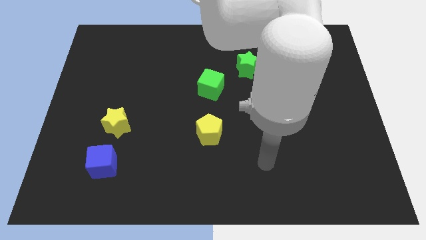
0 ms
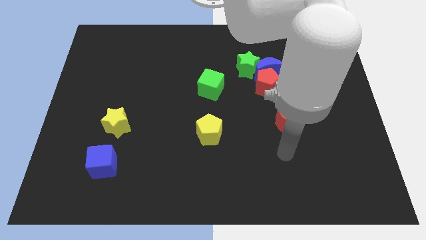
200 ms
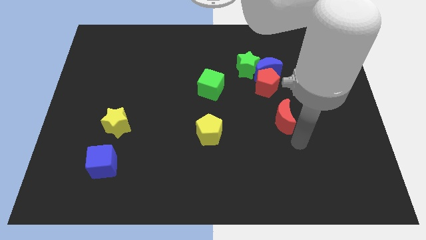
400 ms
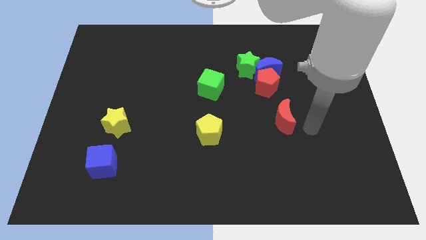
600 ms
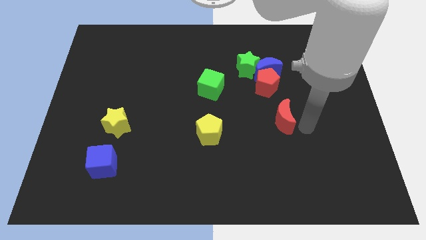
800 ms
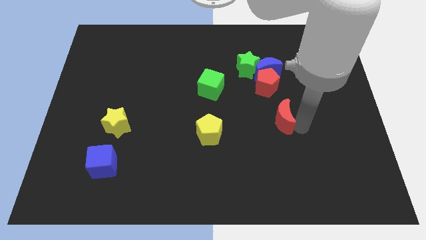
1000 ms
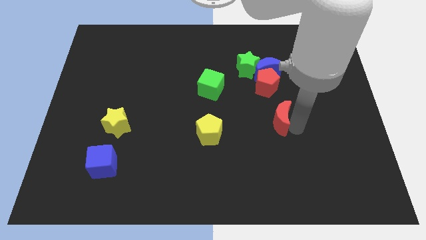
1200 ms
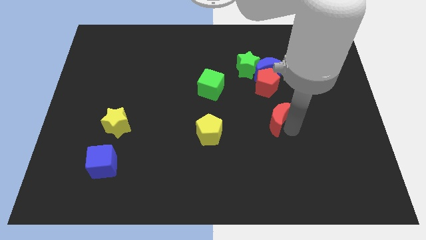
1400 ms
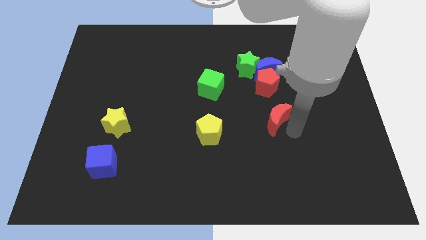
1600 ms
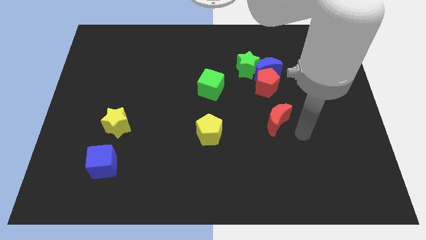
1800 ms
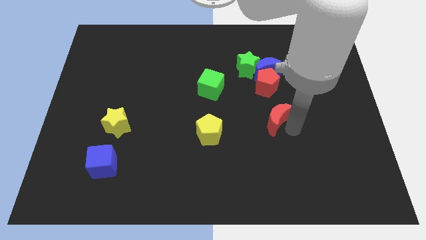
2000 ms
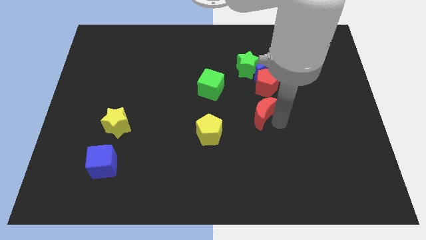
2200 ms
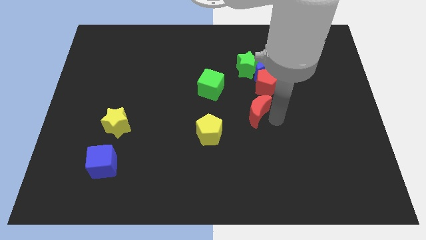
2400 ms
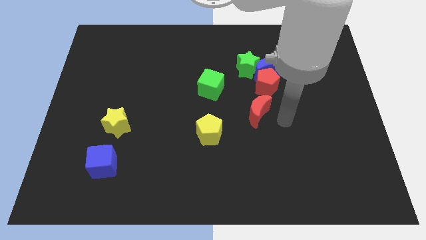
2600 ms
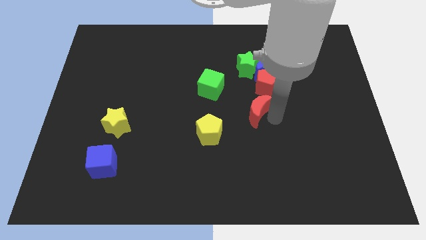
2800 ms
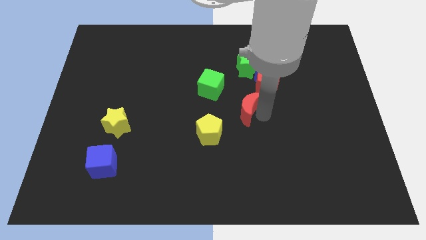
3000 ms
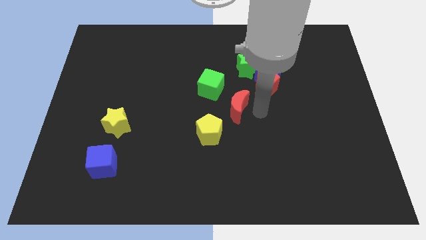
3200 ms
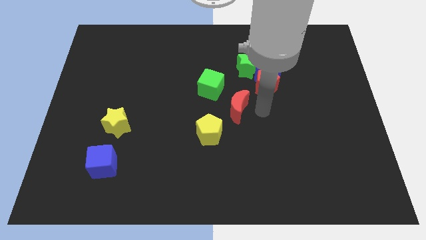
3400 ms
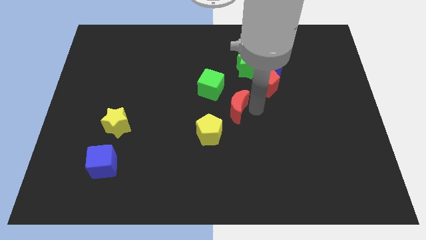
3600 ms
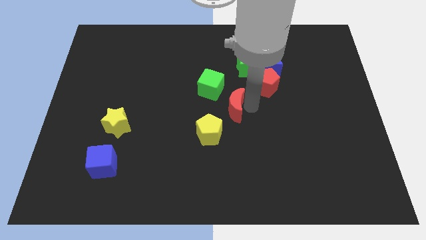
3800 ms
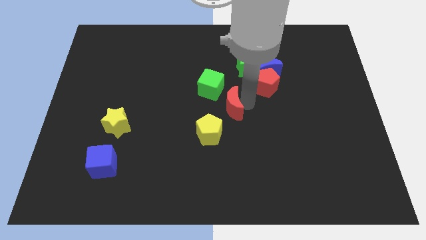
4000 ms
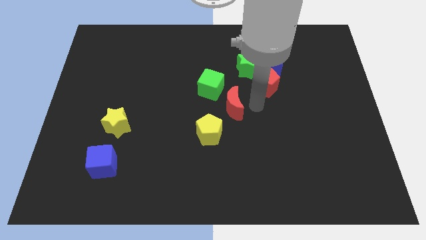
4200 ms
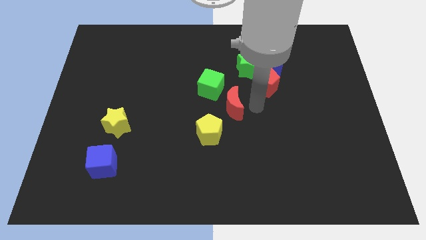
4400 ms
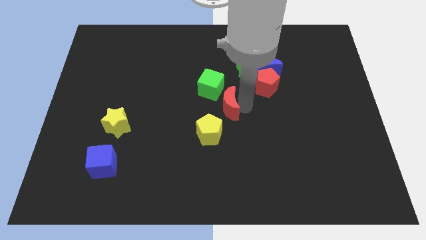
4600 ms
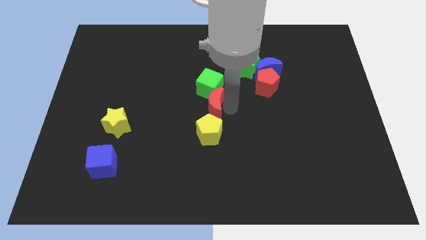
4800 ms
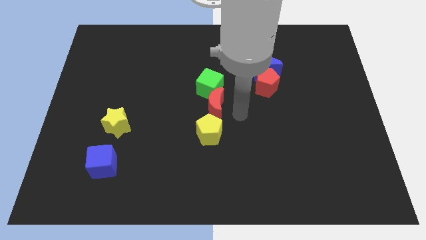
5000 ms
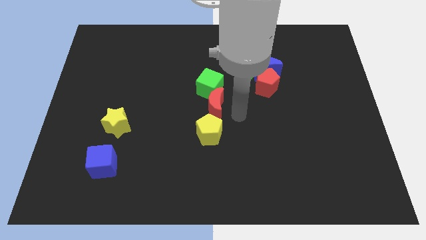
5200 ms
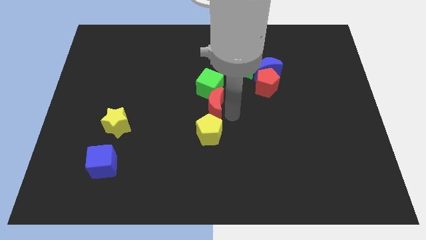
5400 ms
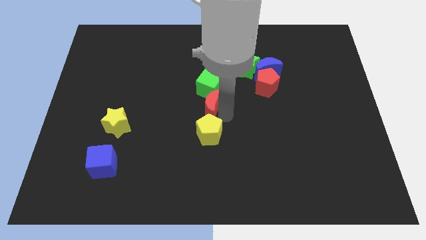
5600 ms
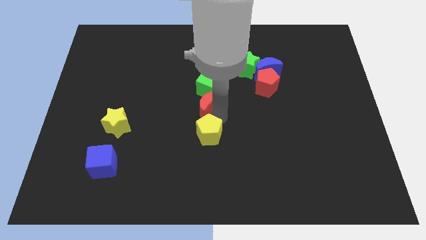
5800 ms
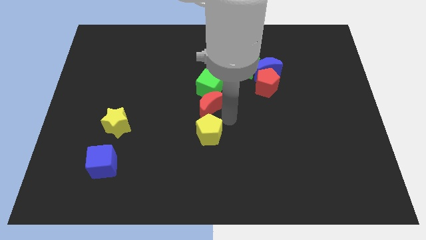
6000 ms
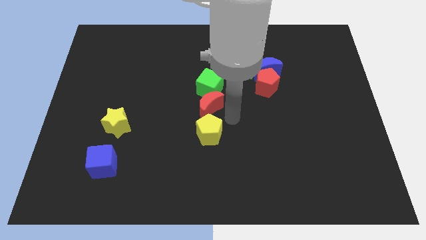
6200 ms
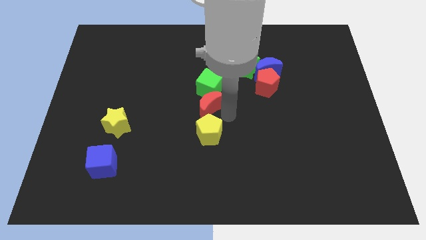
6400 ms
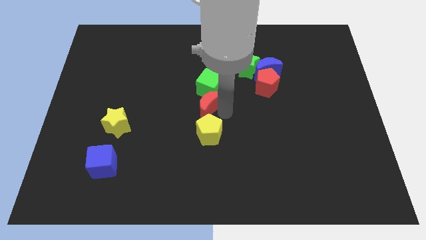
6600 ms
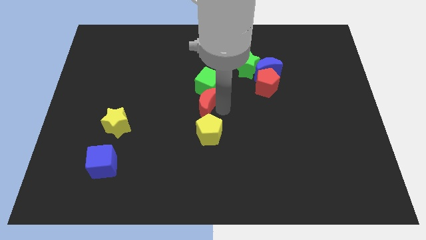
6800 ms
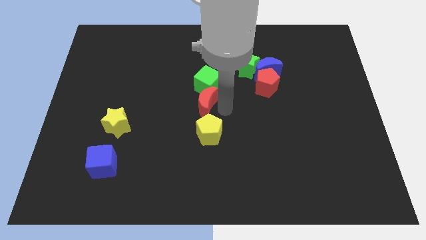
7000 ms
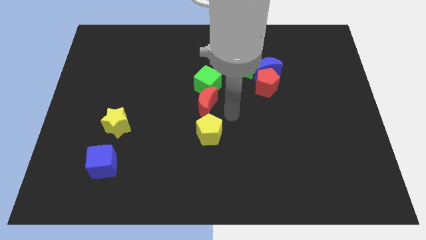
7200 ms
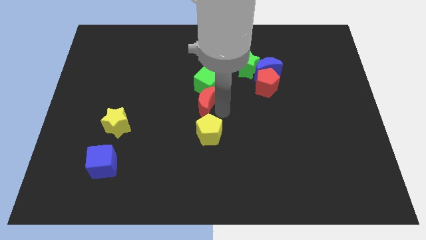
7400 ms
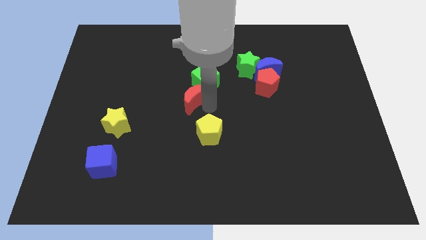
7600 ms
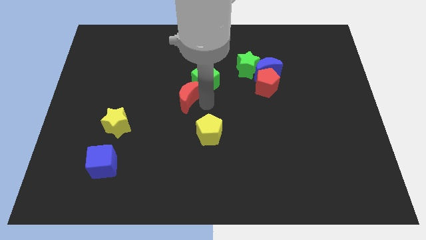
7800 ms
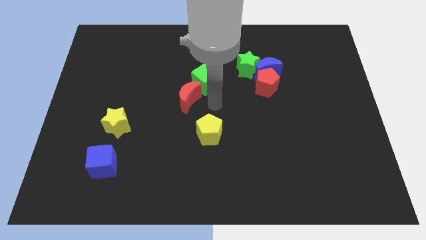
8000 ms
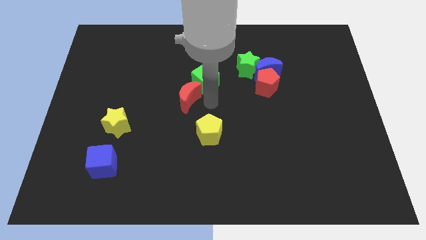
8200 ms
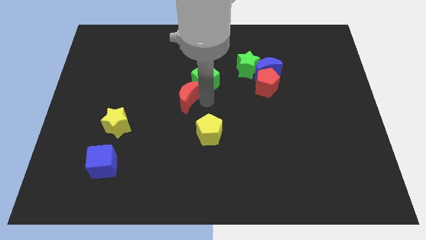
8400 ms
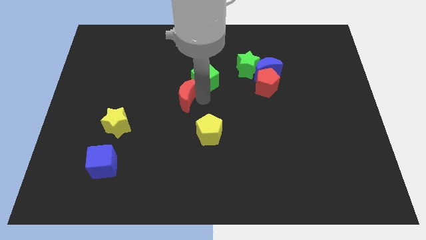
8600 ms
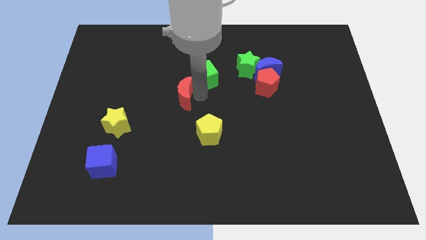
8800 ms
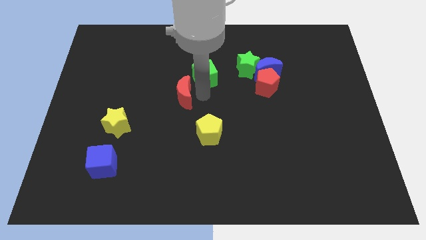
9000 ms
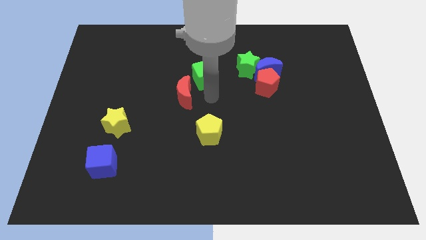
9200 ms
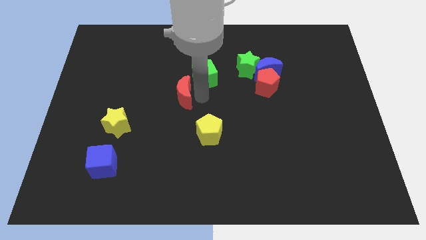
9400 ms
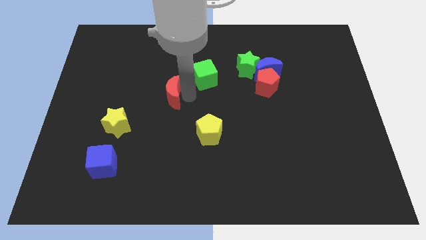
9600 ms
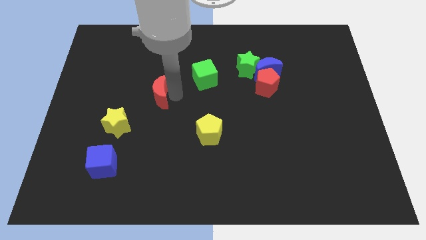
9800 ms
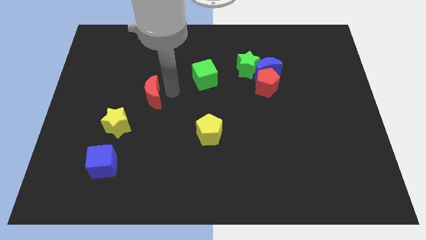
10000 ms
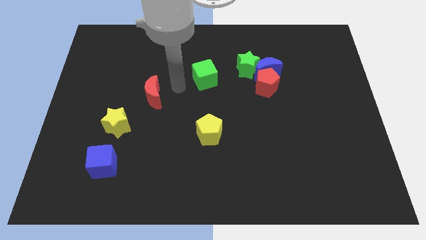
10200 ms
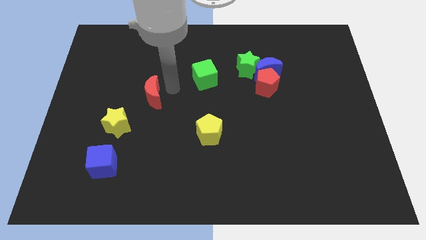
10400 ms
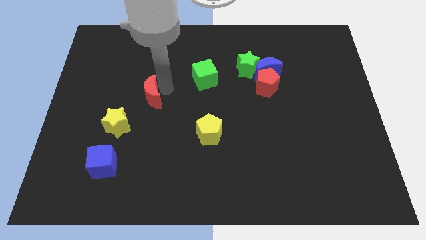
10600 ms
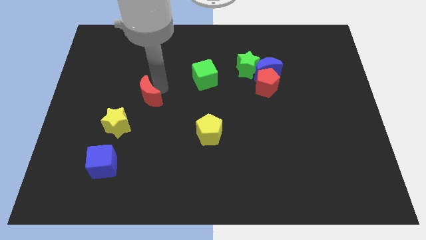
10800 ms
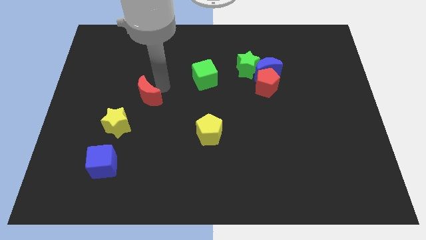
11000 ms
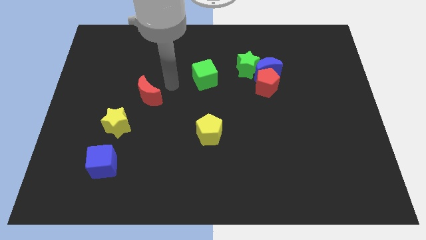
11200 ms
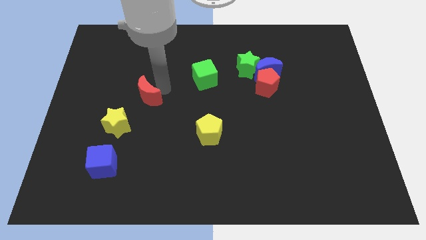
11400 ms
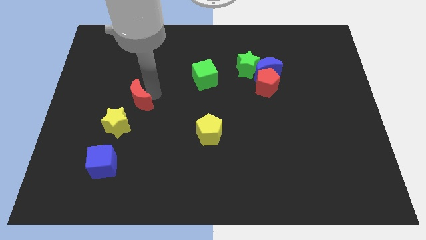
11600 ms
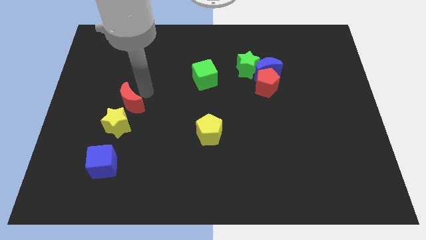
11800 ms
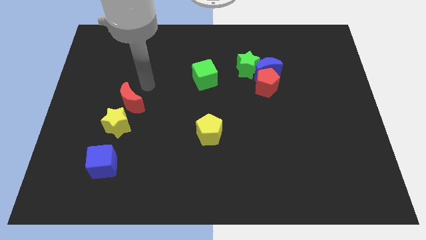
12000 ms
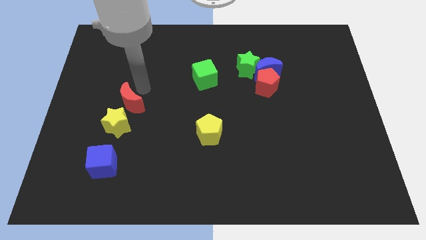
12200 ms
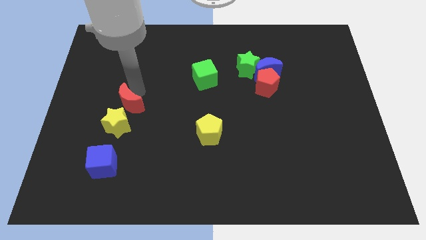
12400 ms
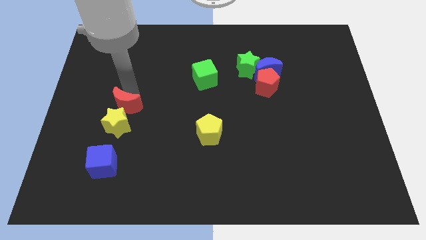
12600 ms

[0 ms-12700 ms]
move the red moon above the blue cube
